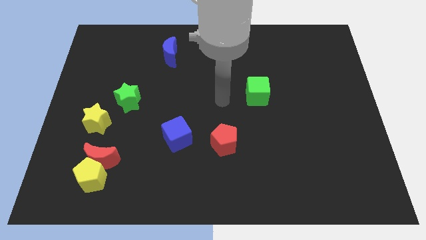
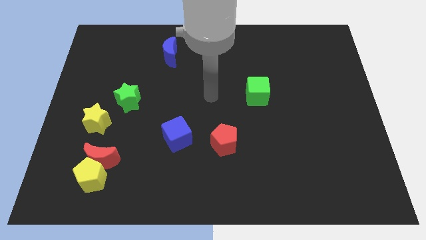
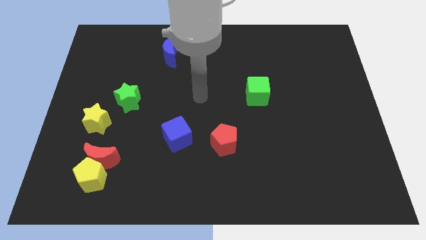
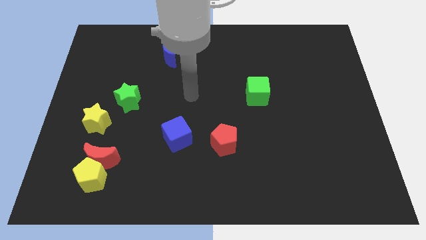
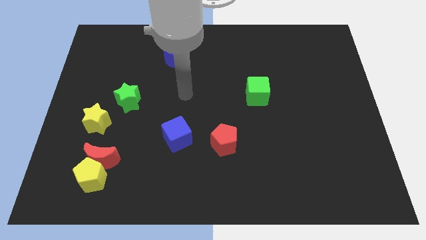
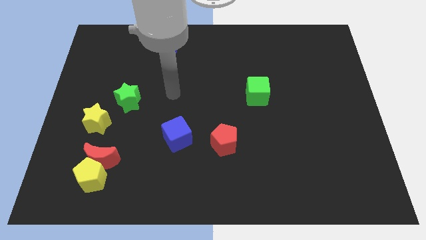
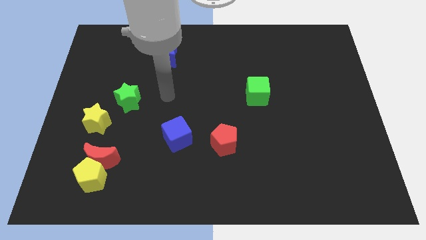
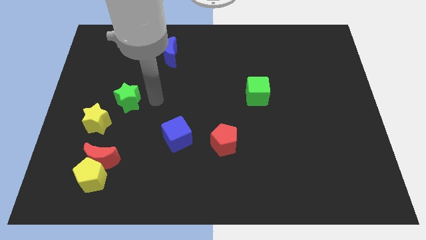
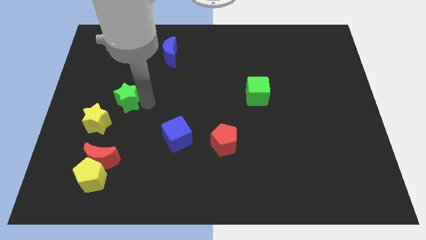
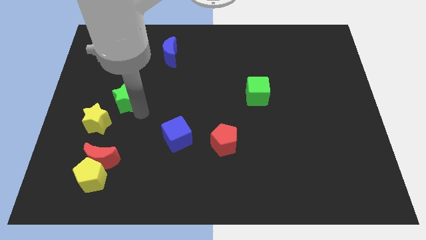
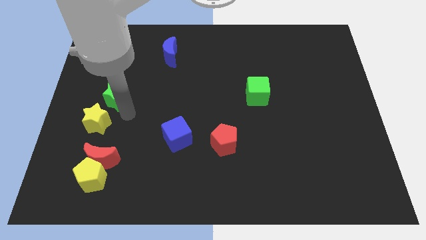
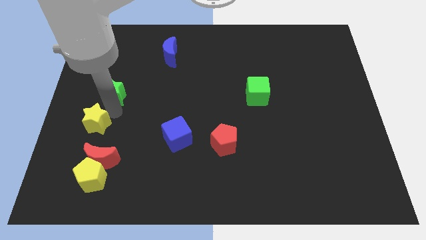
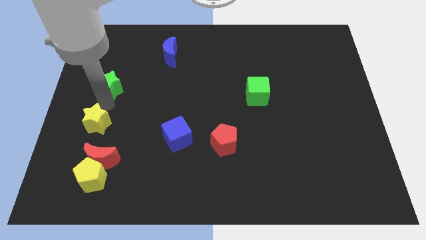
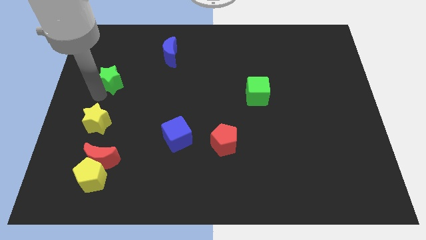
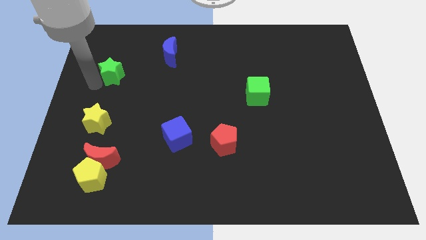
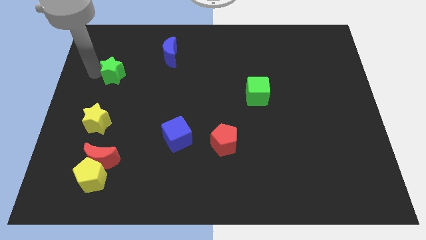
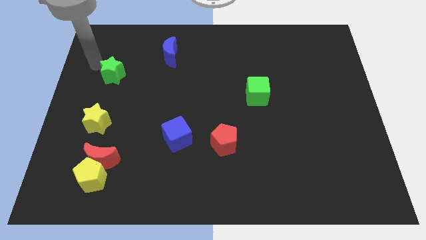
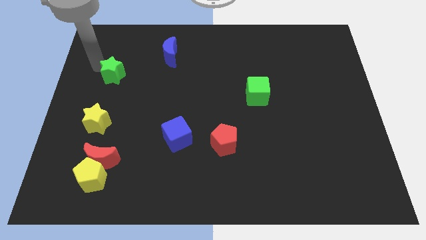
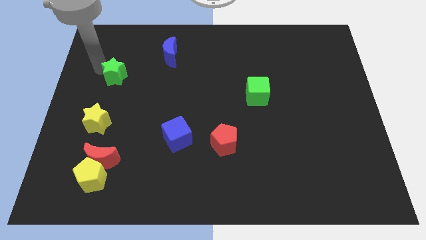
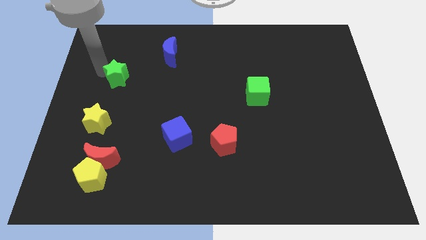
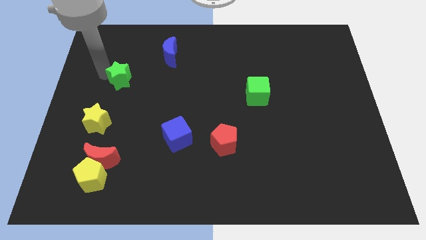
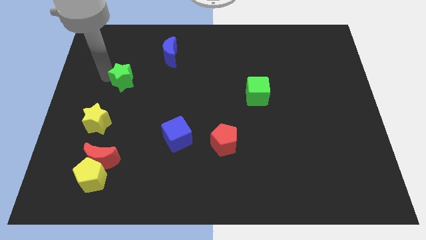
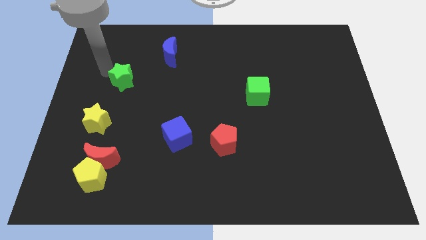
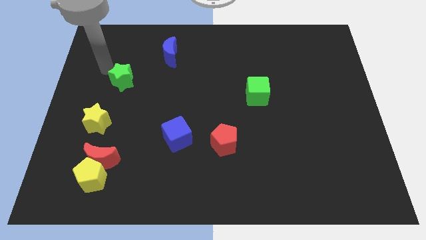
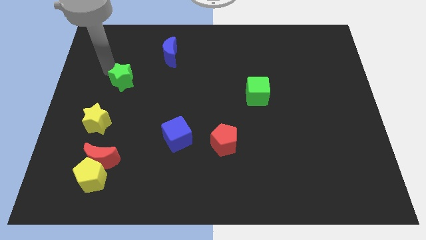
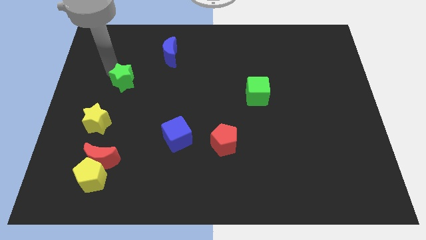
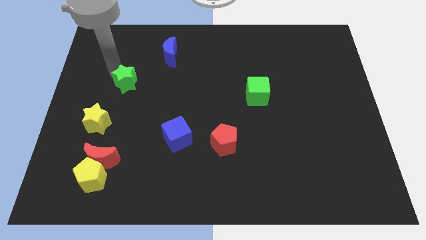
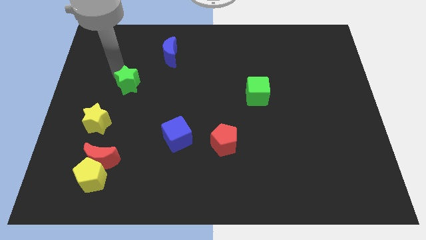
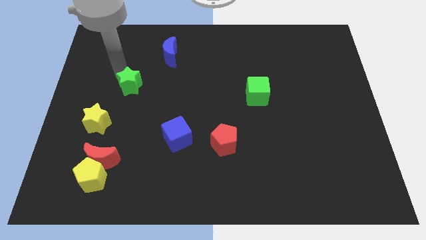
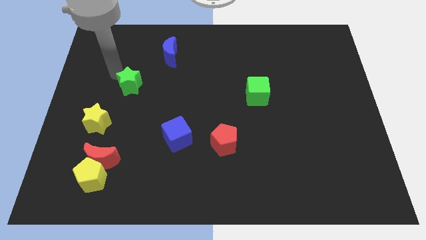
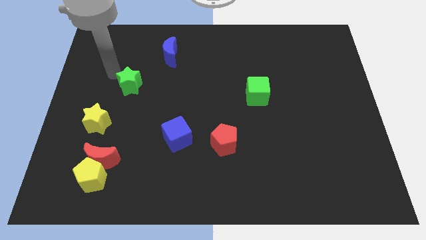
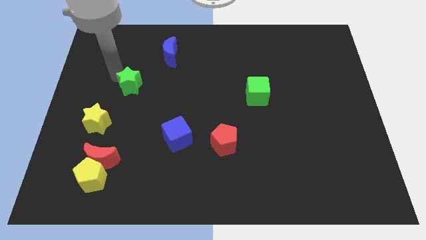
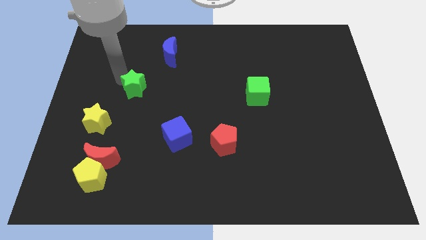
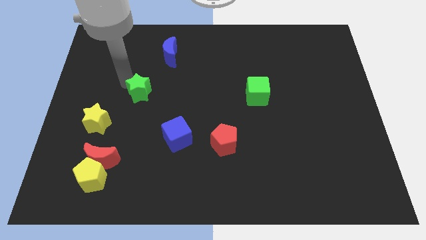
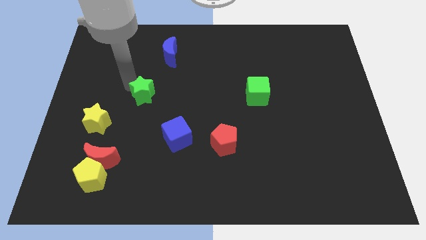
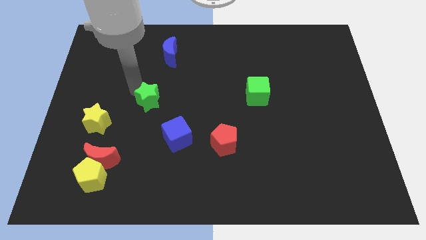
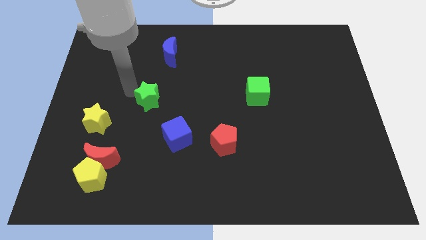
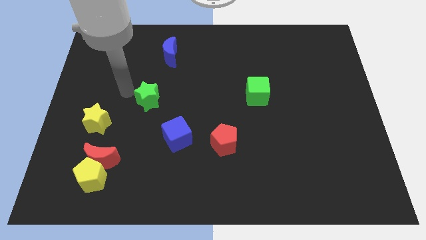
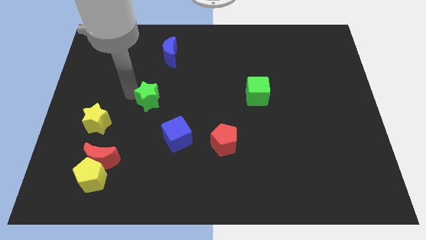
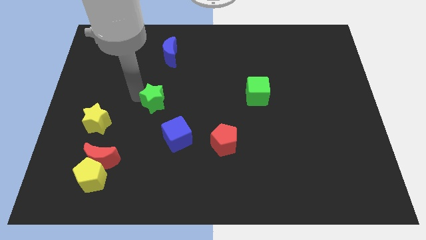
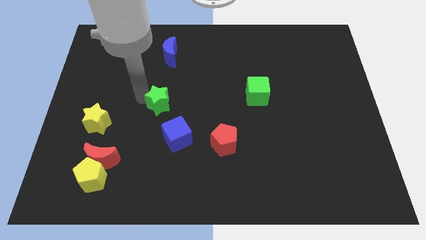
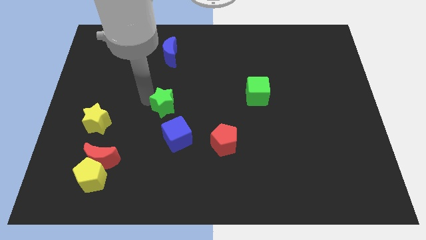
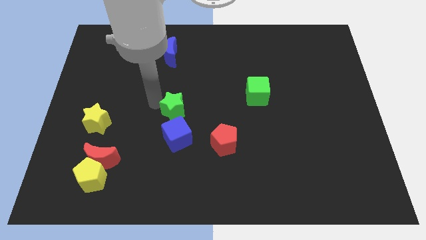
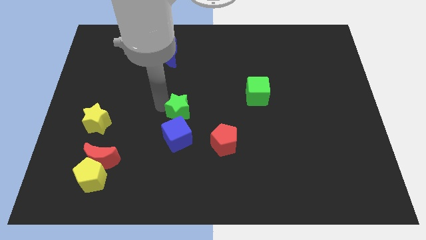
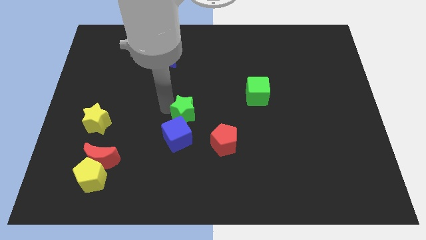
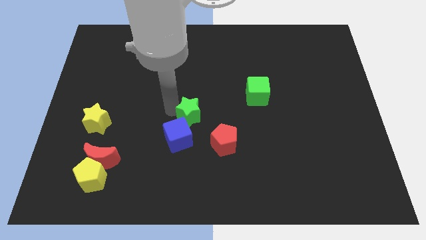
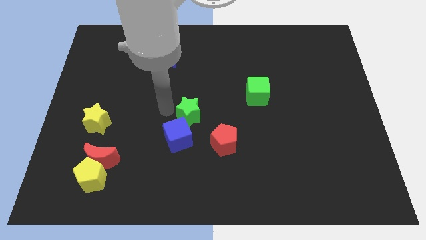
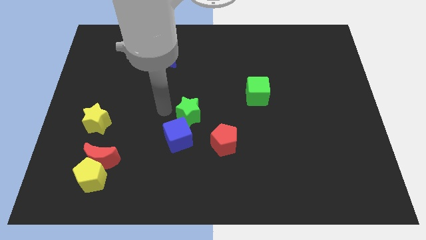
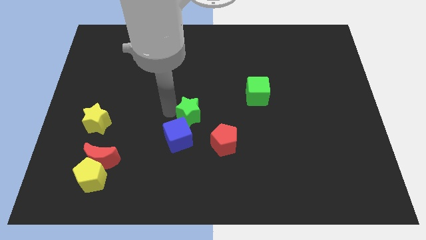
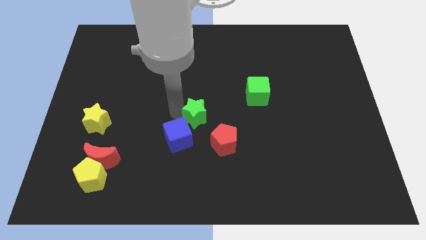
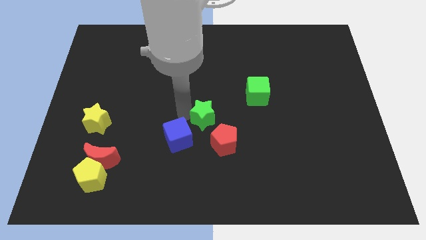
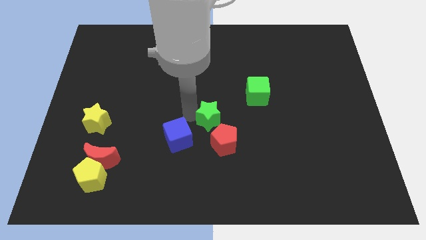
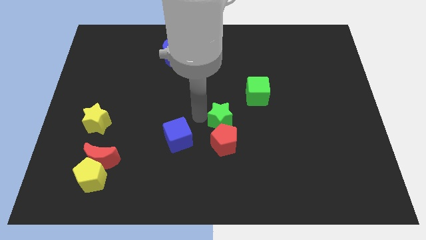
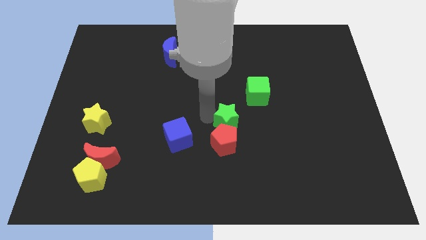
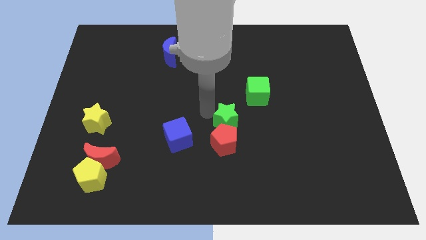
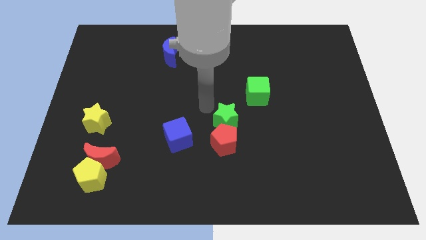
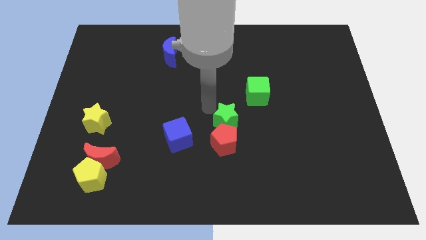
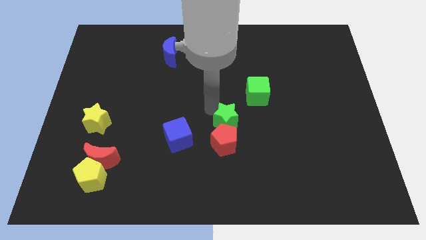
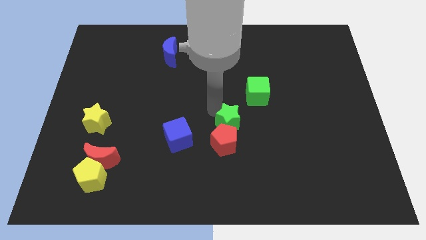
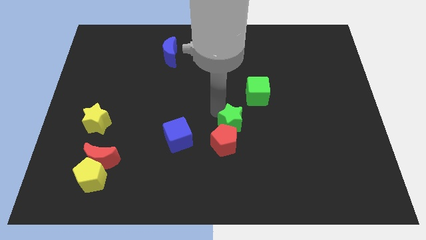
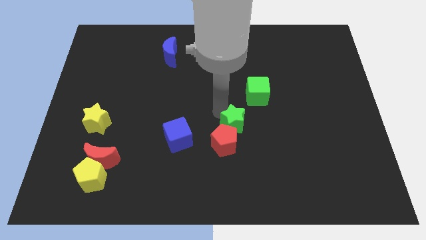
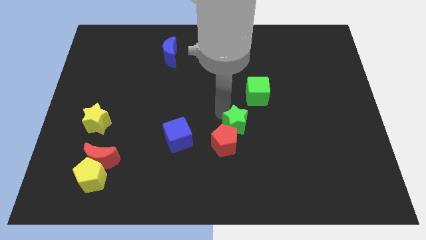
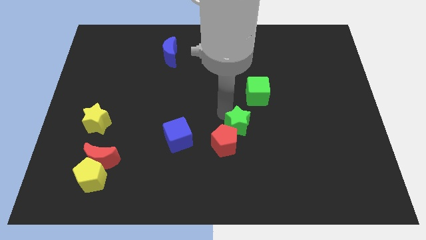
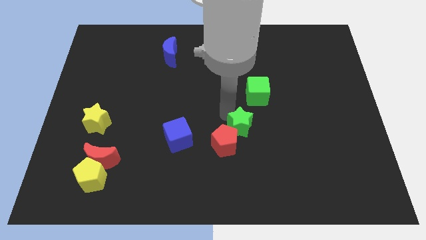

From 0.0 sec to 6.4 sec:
move the green star to the right side of the red pentagon
